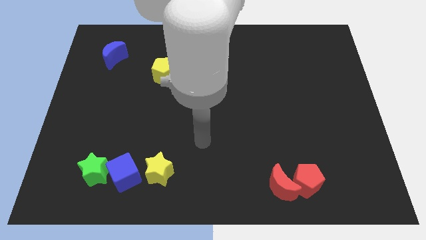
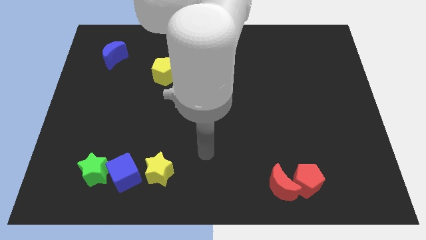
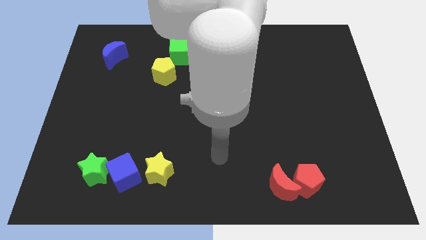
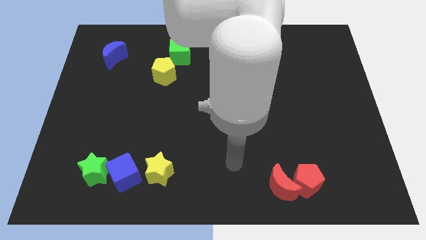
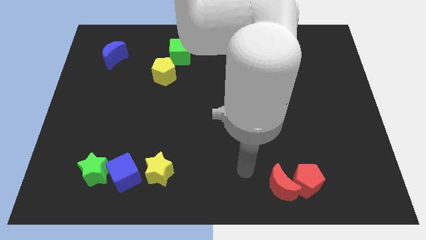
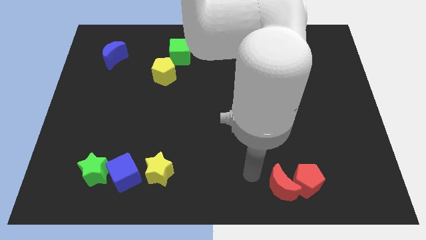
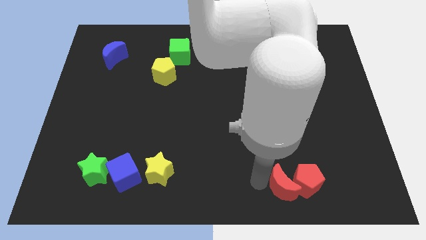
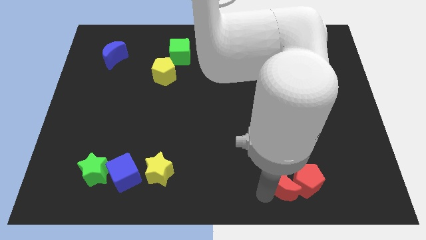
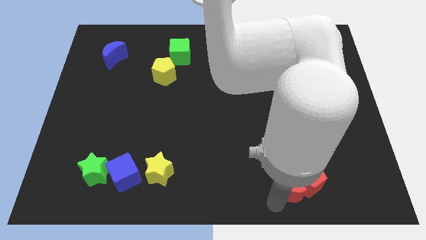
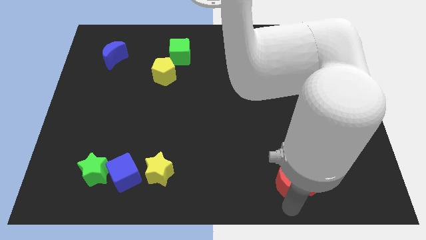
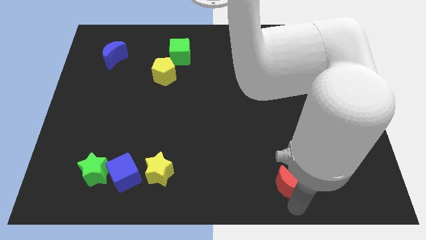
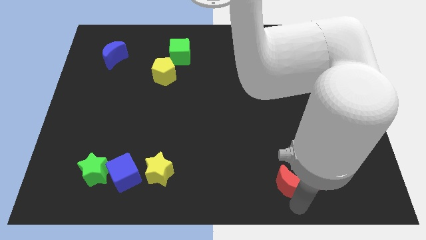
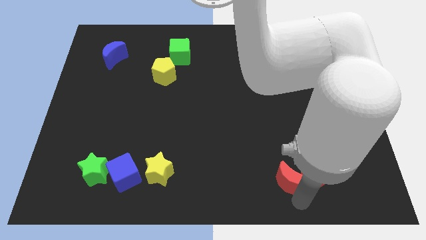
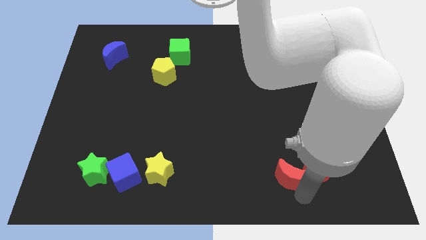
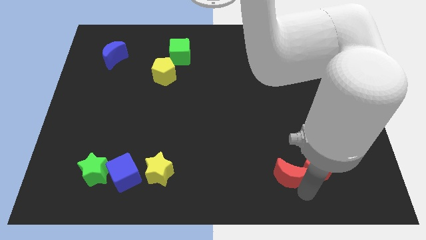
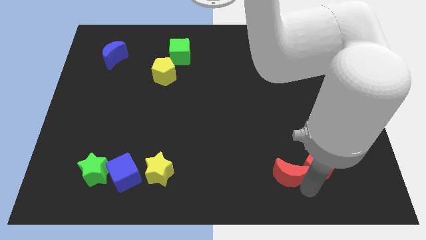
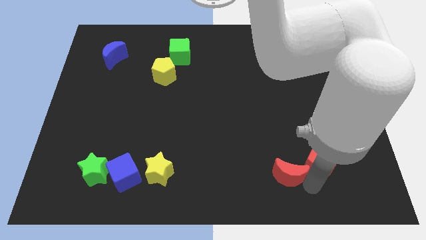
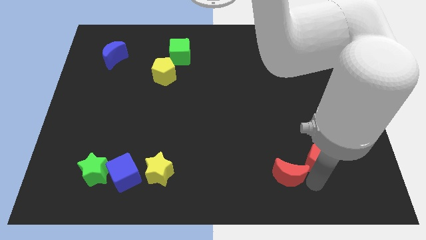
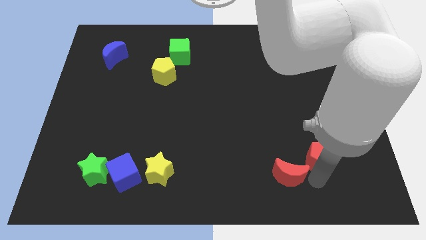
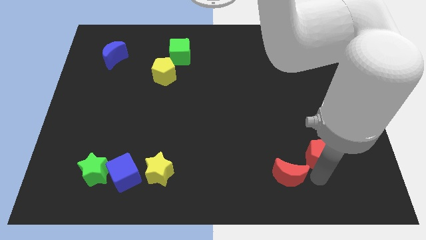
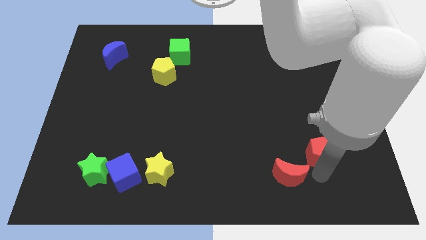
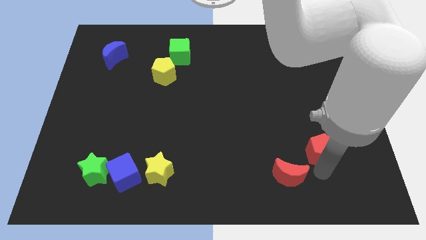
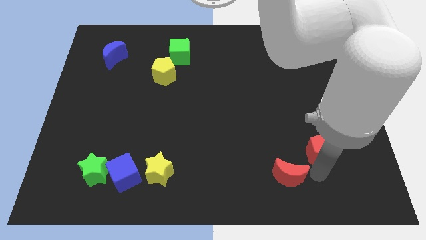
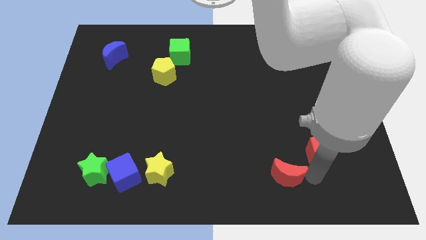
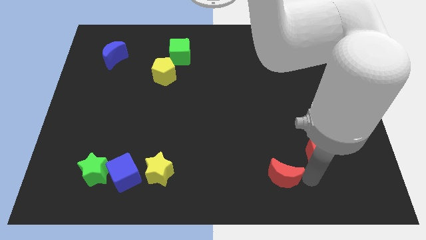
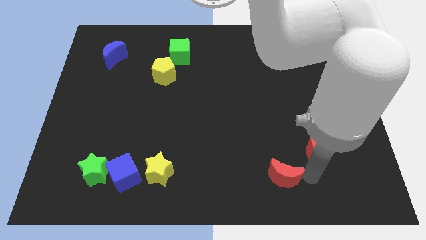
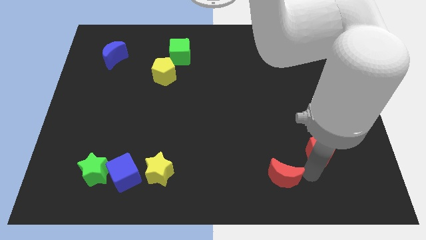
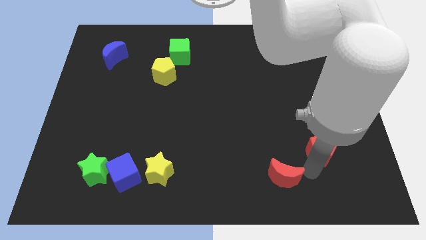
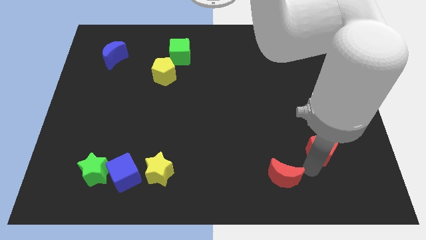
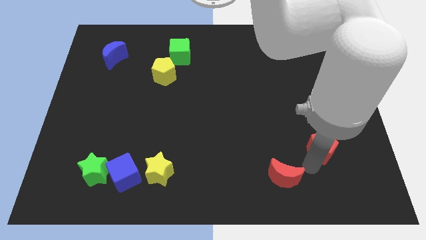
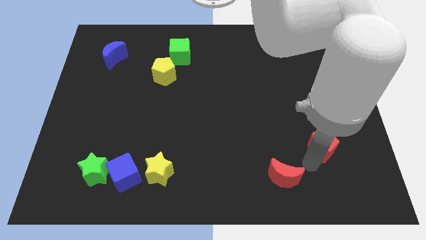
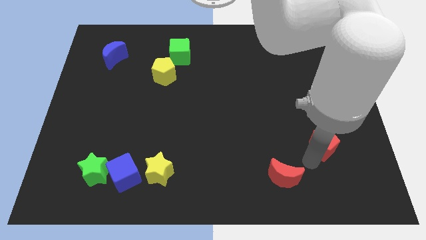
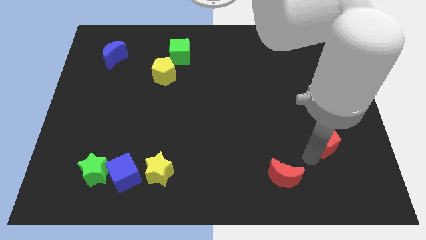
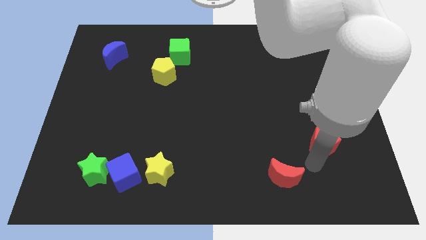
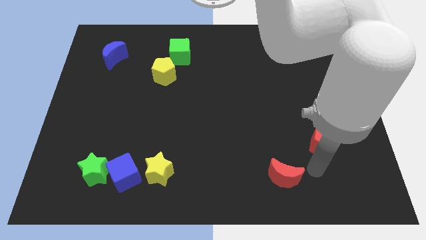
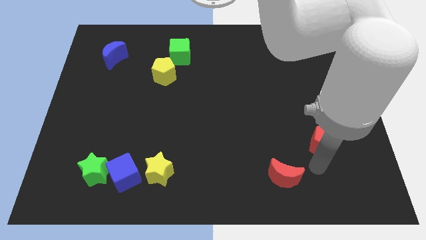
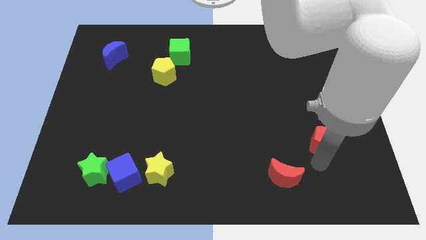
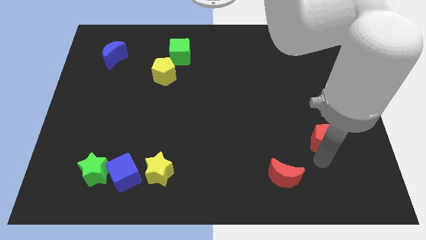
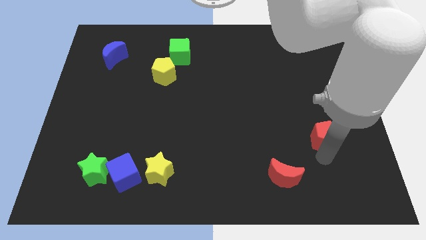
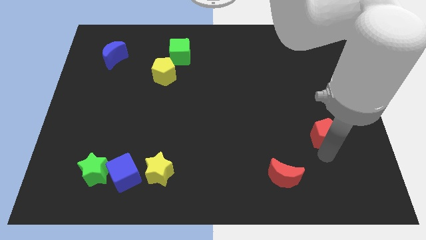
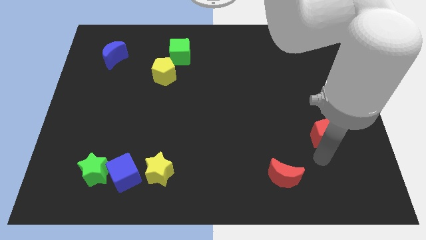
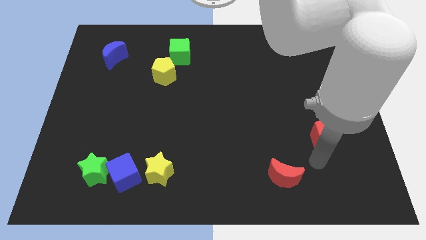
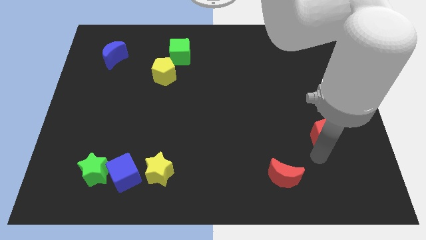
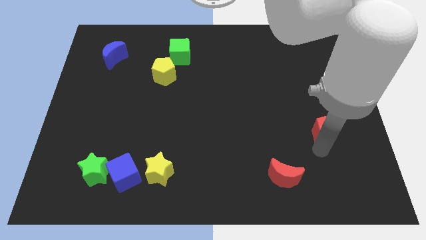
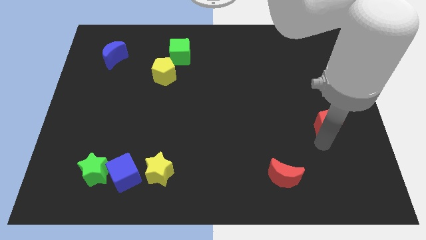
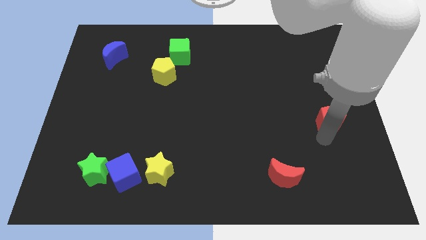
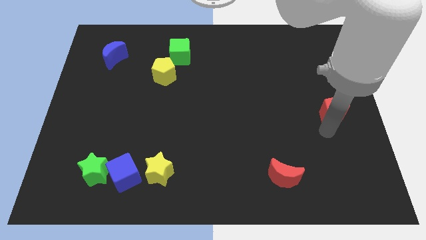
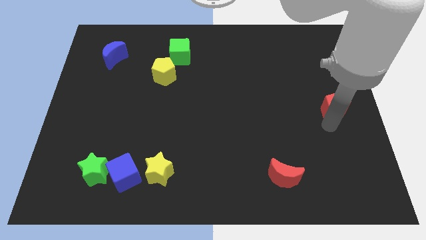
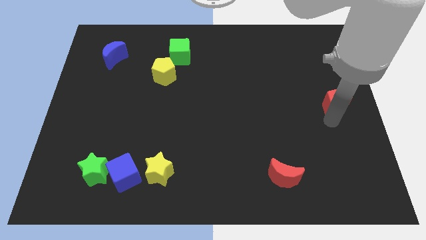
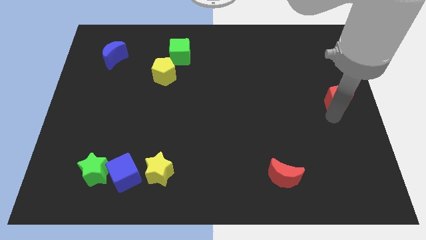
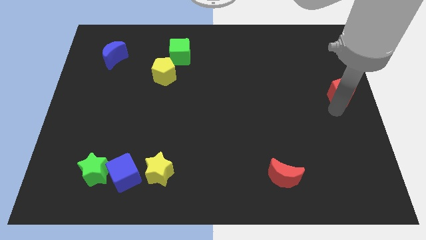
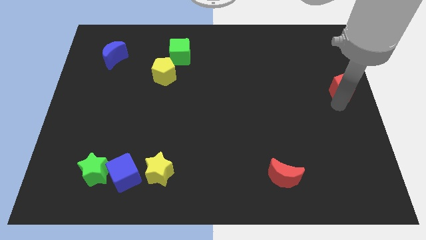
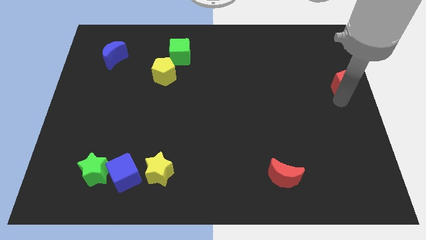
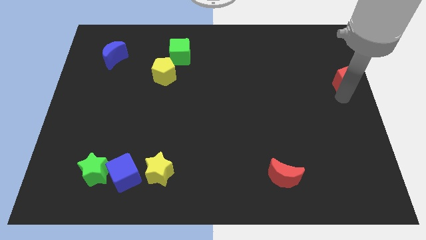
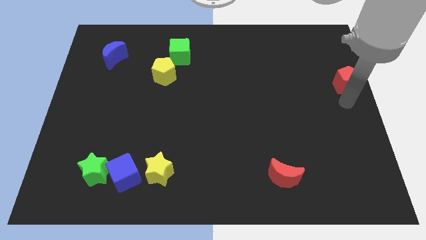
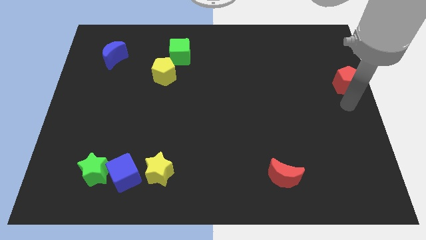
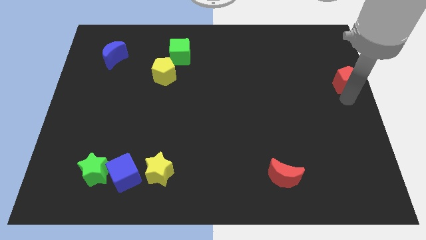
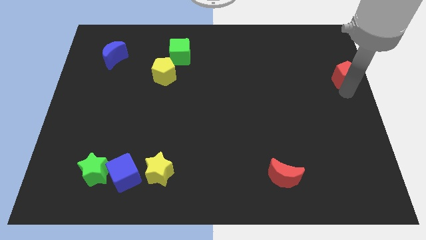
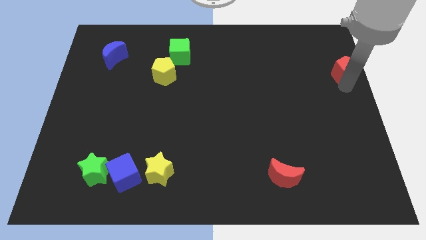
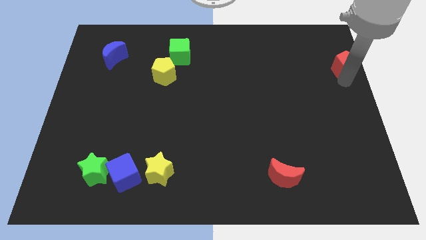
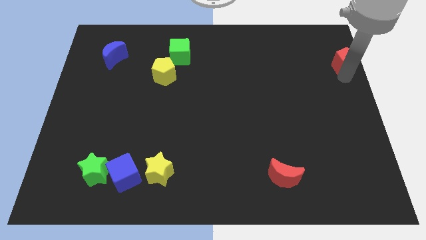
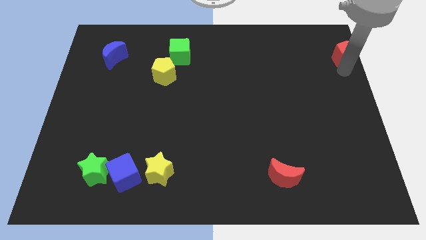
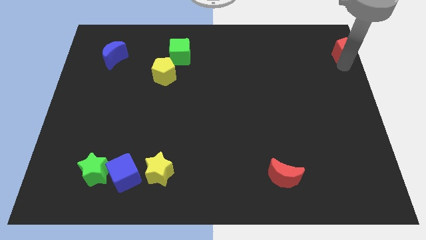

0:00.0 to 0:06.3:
slide the red pentagon to the upper right corner
